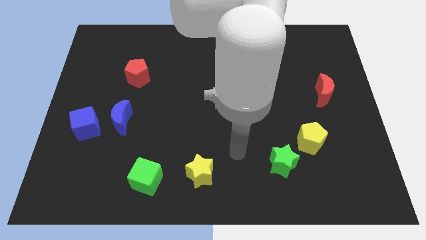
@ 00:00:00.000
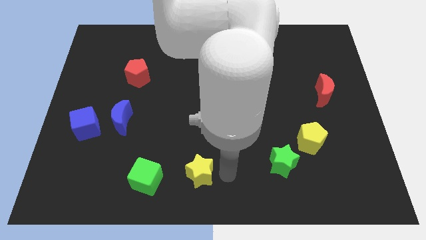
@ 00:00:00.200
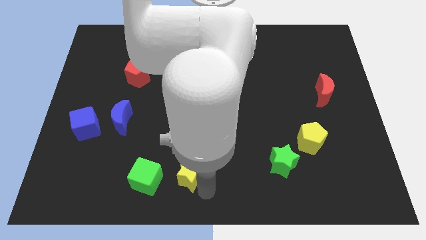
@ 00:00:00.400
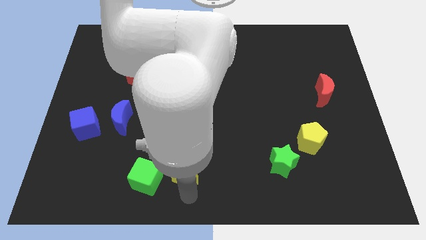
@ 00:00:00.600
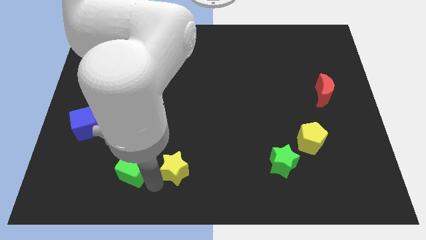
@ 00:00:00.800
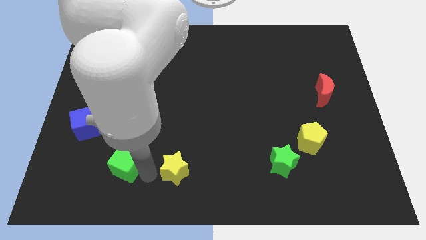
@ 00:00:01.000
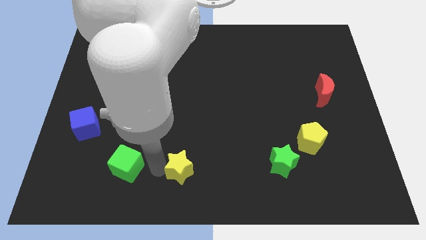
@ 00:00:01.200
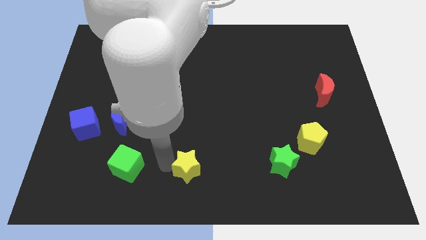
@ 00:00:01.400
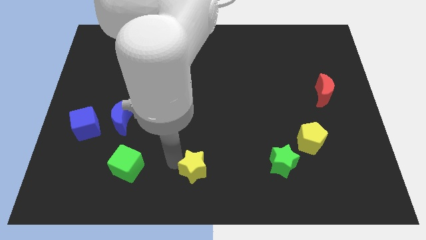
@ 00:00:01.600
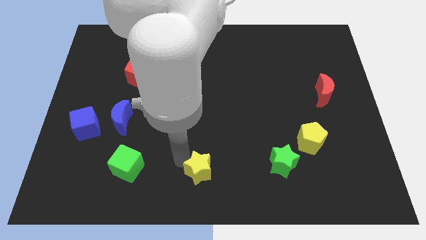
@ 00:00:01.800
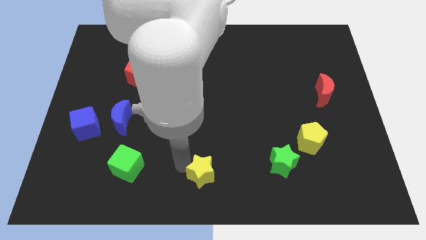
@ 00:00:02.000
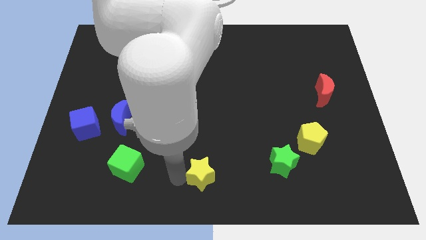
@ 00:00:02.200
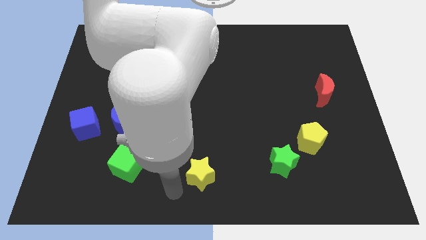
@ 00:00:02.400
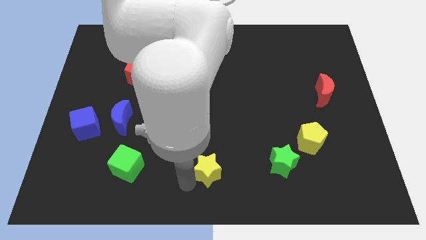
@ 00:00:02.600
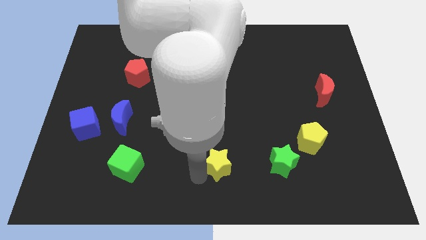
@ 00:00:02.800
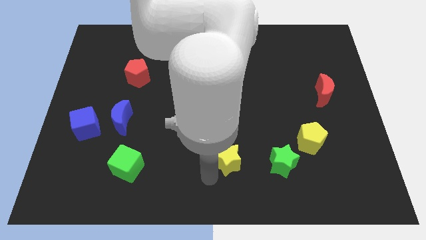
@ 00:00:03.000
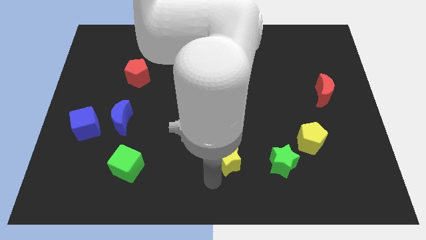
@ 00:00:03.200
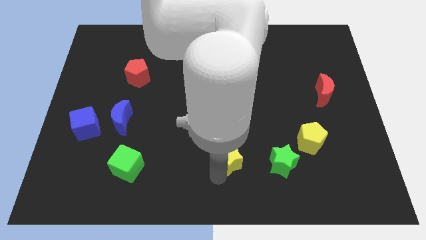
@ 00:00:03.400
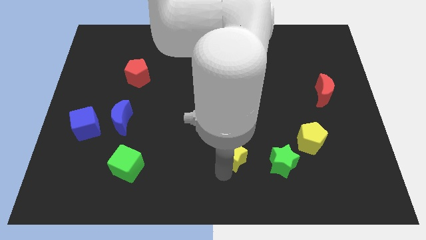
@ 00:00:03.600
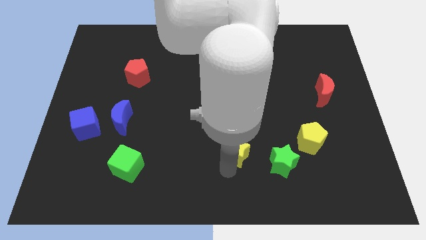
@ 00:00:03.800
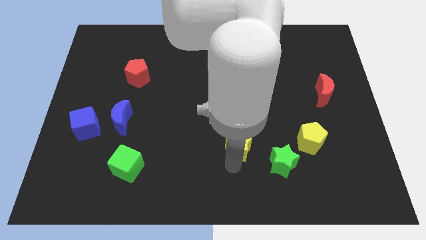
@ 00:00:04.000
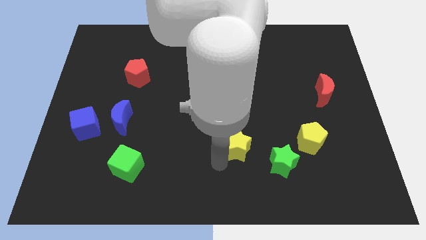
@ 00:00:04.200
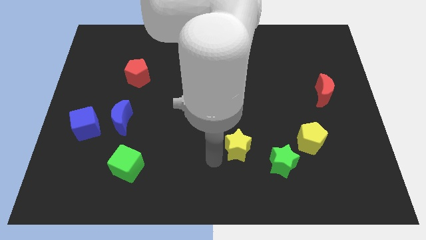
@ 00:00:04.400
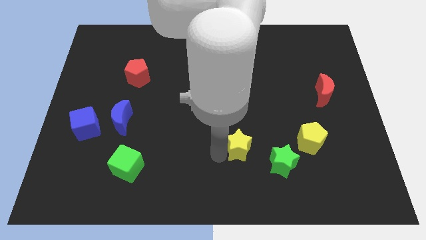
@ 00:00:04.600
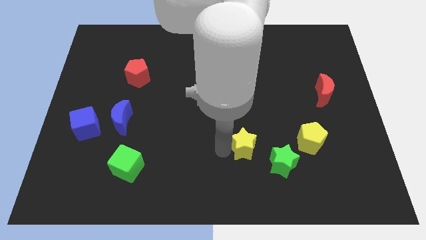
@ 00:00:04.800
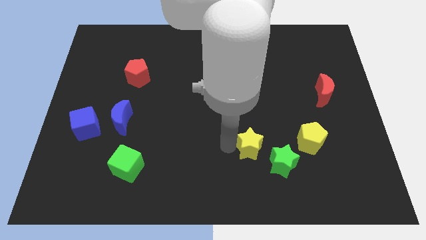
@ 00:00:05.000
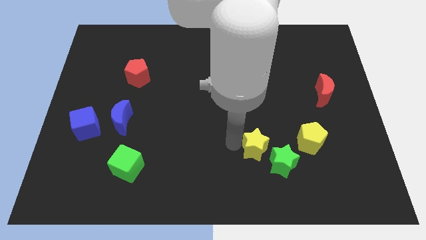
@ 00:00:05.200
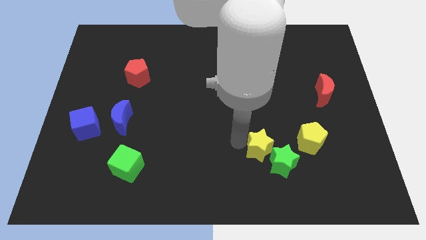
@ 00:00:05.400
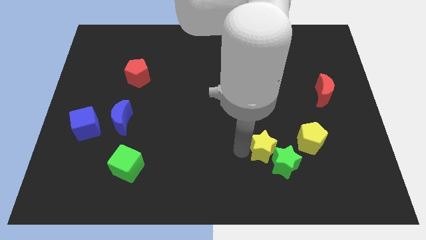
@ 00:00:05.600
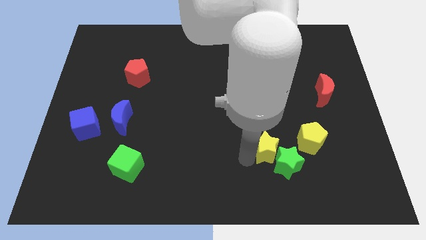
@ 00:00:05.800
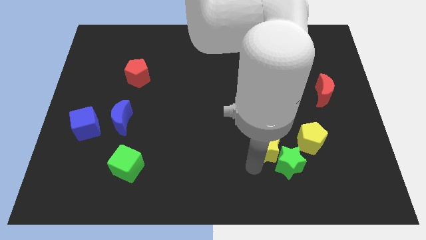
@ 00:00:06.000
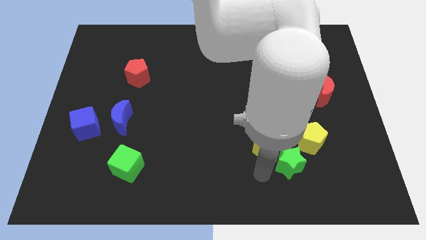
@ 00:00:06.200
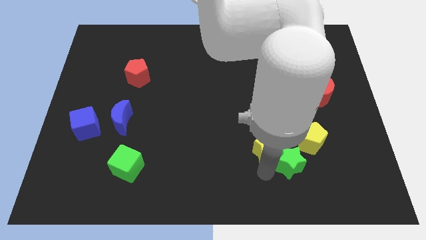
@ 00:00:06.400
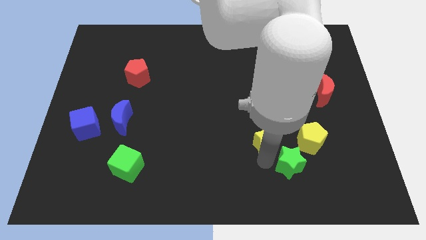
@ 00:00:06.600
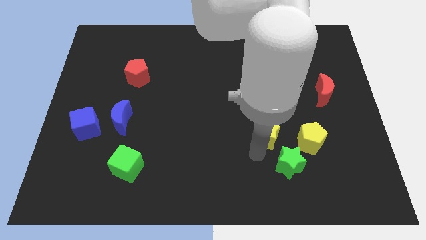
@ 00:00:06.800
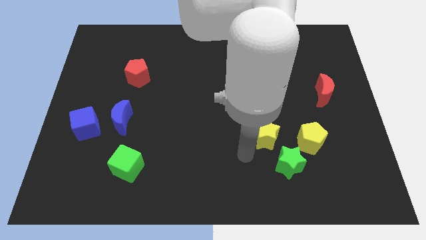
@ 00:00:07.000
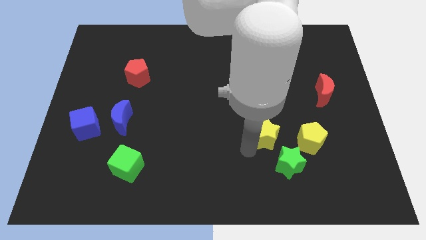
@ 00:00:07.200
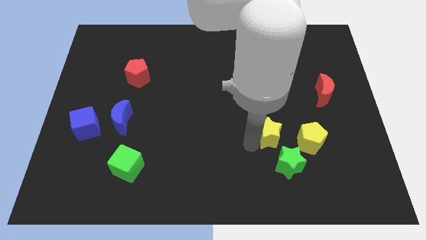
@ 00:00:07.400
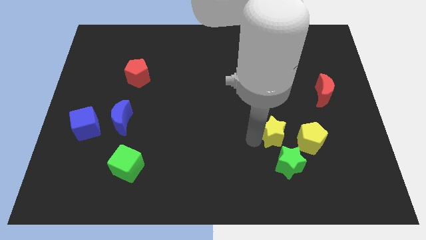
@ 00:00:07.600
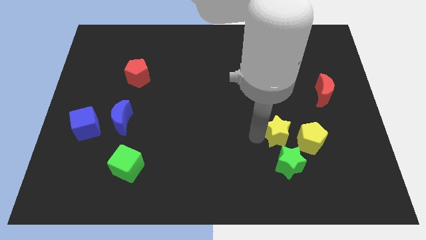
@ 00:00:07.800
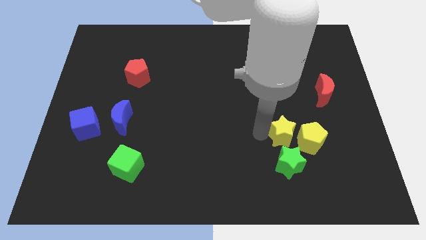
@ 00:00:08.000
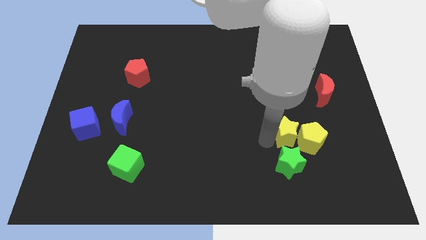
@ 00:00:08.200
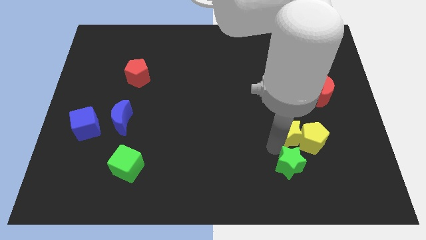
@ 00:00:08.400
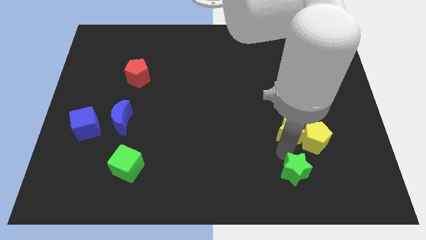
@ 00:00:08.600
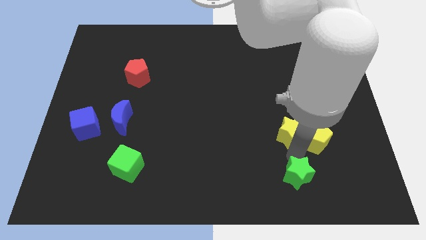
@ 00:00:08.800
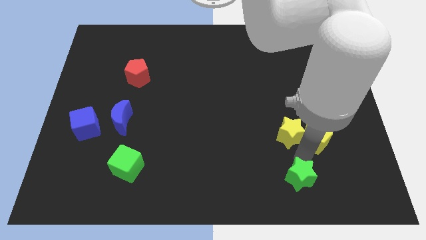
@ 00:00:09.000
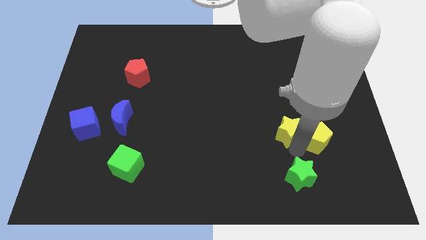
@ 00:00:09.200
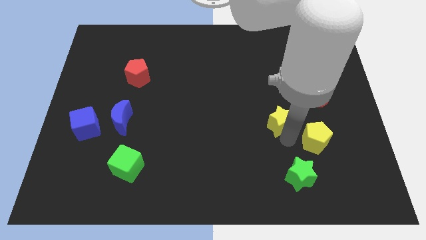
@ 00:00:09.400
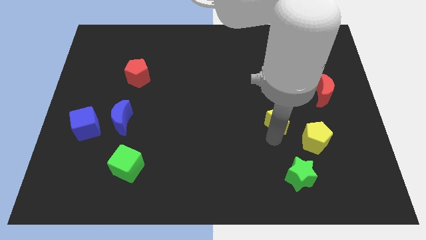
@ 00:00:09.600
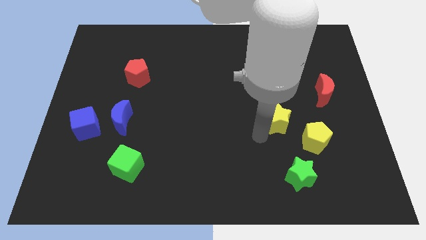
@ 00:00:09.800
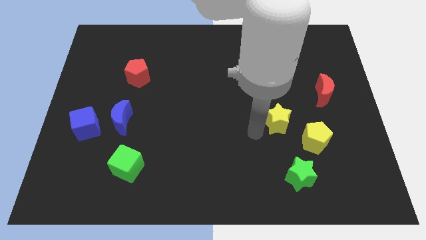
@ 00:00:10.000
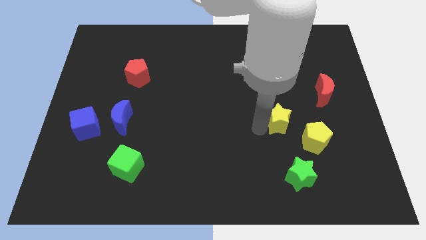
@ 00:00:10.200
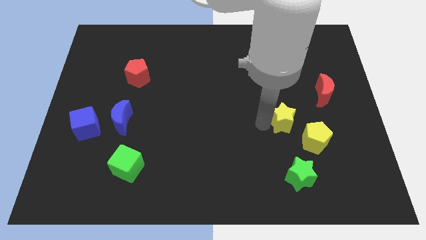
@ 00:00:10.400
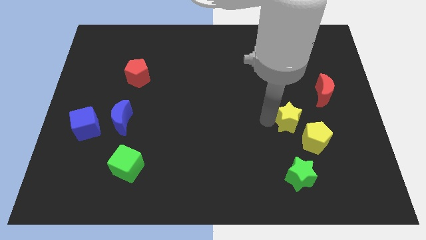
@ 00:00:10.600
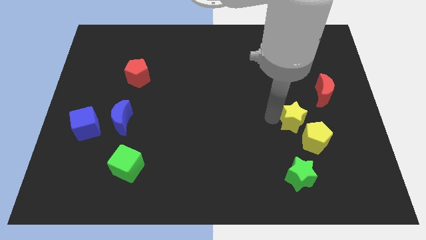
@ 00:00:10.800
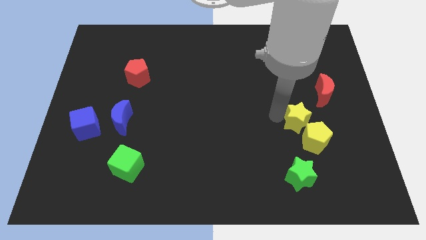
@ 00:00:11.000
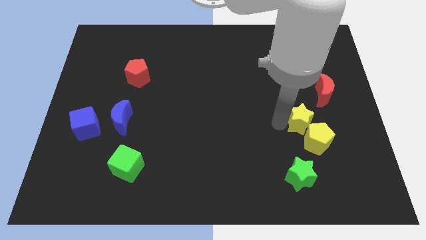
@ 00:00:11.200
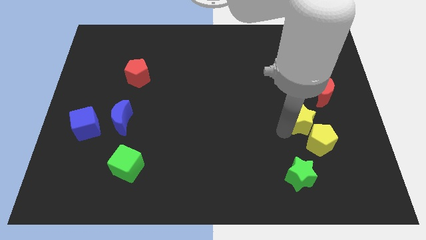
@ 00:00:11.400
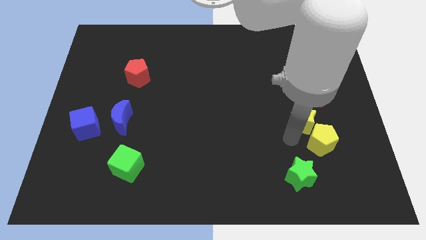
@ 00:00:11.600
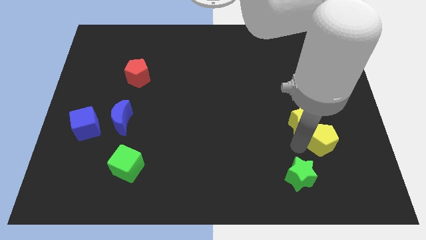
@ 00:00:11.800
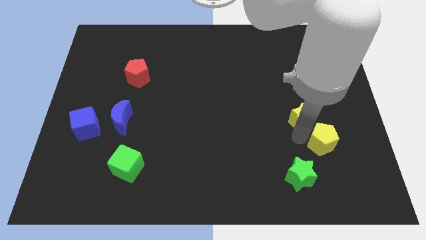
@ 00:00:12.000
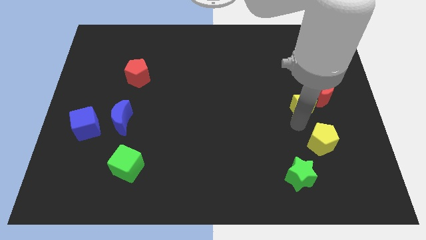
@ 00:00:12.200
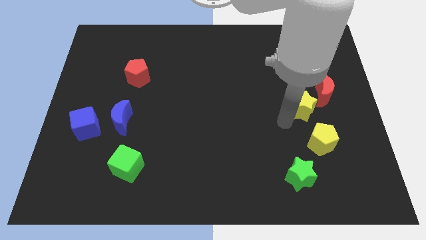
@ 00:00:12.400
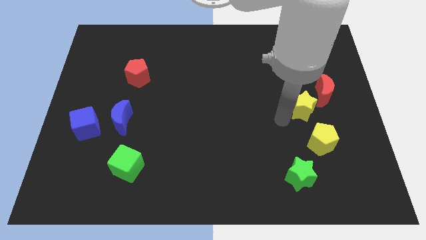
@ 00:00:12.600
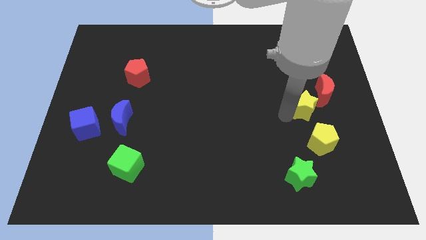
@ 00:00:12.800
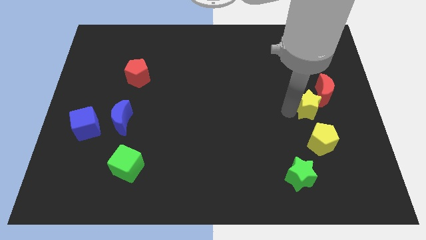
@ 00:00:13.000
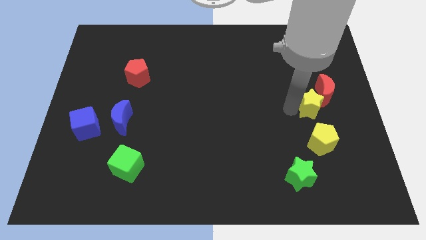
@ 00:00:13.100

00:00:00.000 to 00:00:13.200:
put the yellow star close to the red moon

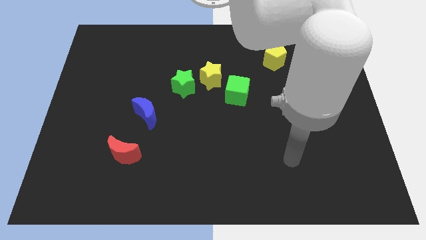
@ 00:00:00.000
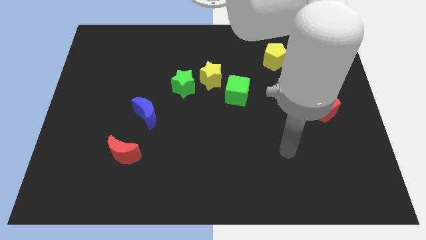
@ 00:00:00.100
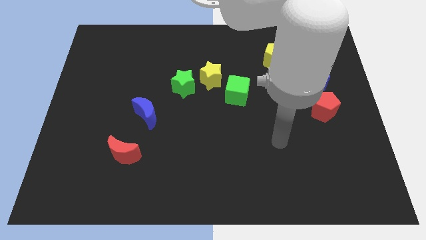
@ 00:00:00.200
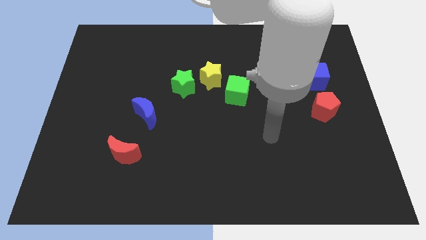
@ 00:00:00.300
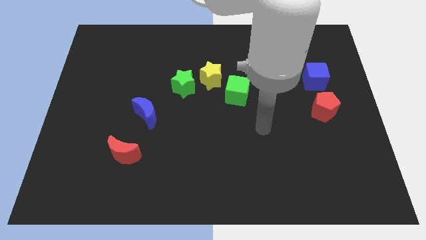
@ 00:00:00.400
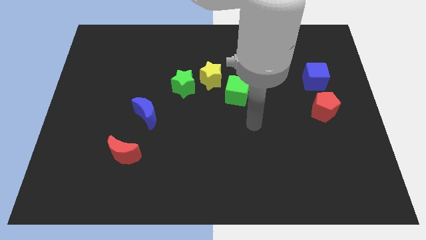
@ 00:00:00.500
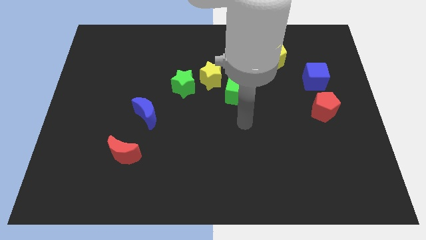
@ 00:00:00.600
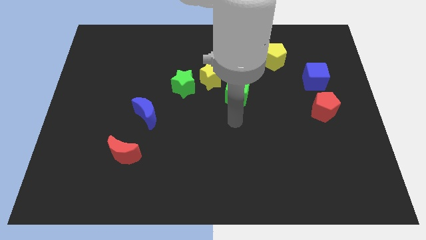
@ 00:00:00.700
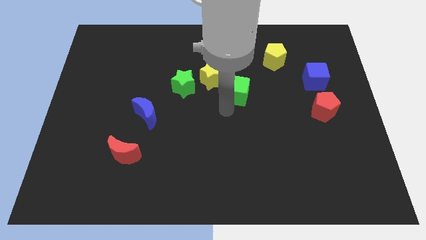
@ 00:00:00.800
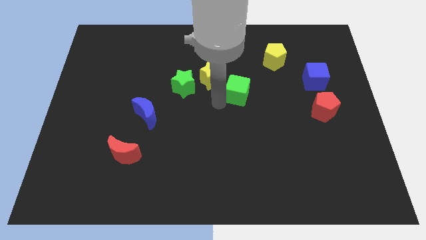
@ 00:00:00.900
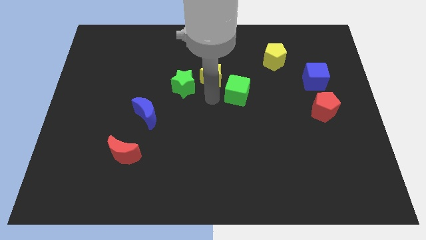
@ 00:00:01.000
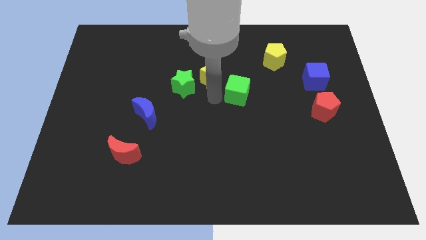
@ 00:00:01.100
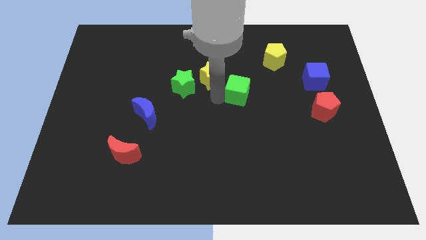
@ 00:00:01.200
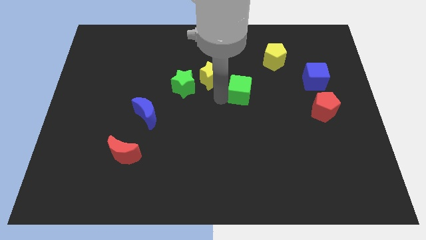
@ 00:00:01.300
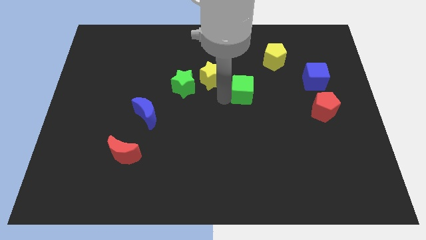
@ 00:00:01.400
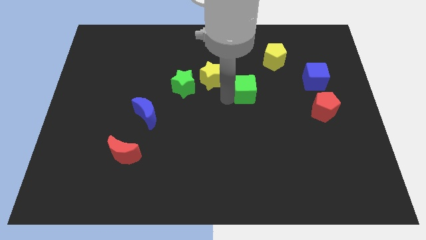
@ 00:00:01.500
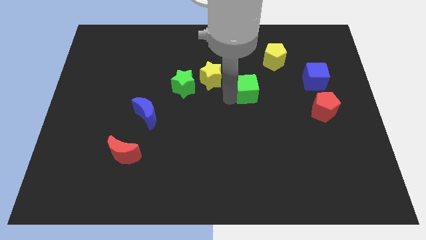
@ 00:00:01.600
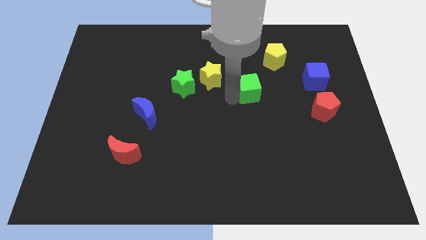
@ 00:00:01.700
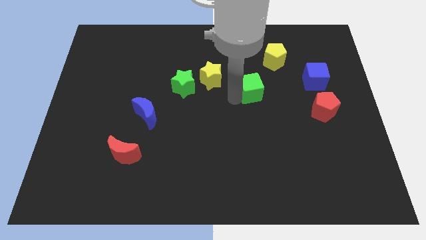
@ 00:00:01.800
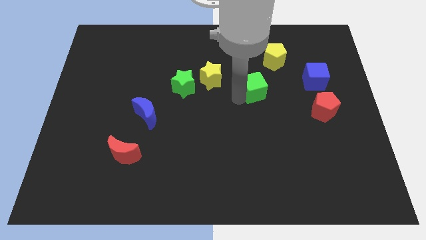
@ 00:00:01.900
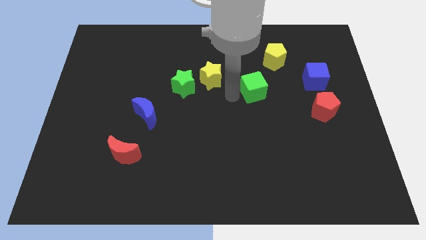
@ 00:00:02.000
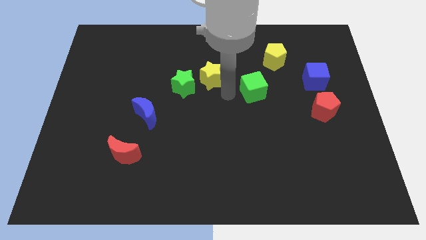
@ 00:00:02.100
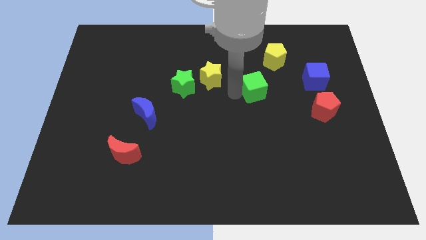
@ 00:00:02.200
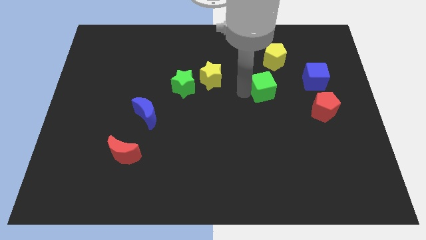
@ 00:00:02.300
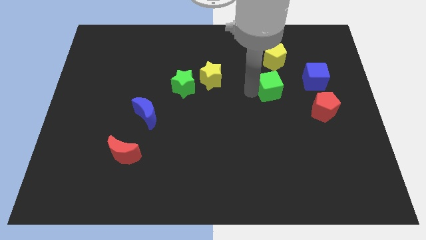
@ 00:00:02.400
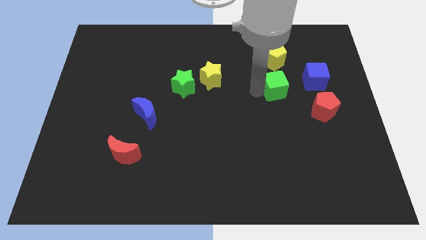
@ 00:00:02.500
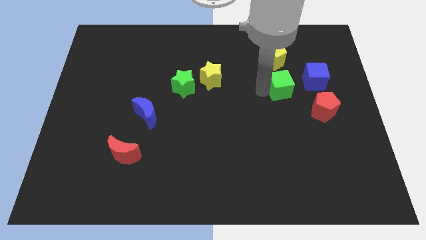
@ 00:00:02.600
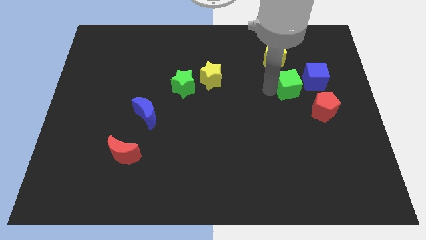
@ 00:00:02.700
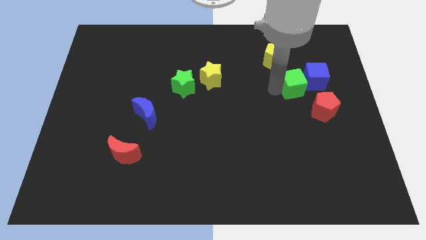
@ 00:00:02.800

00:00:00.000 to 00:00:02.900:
put the green cube next to the blue cube
